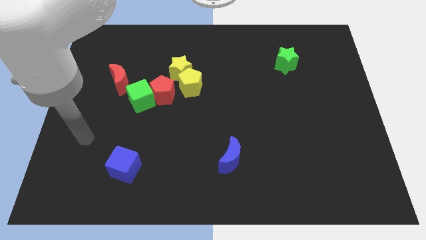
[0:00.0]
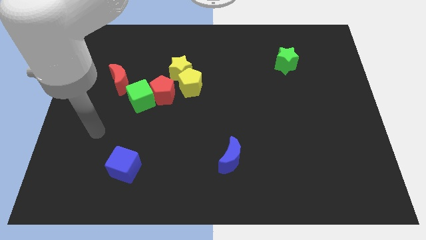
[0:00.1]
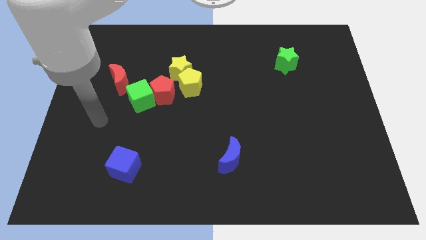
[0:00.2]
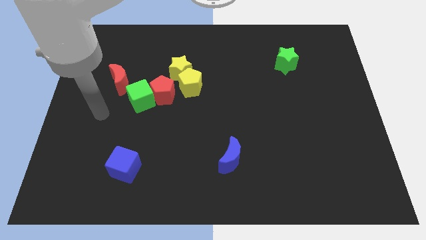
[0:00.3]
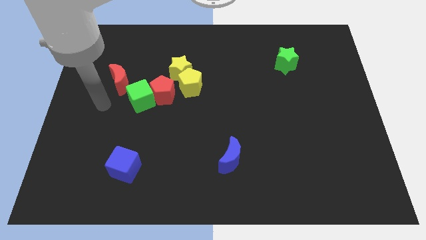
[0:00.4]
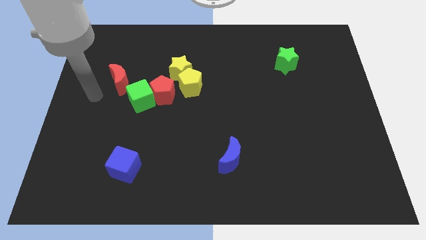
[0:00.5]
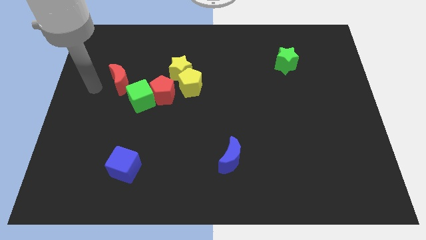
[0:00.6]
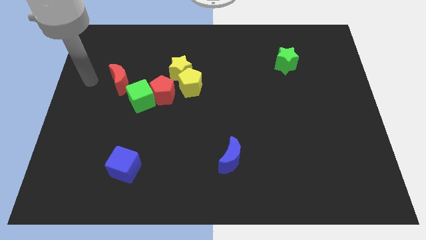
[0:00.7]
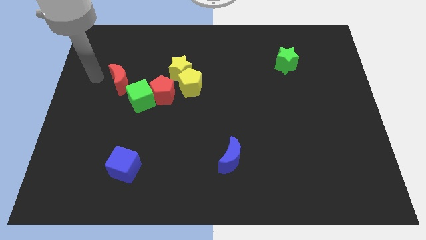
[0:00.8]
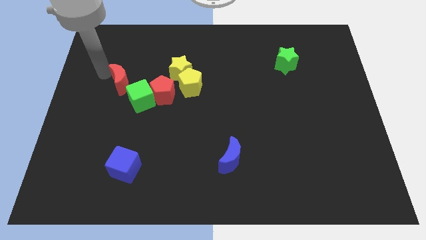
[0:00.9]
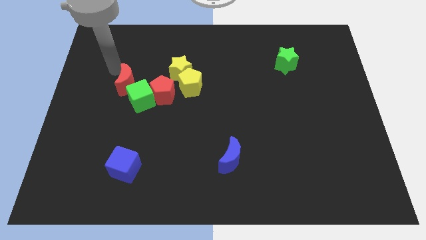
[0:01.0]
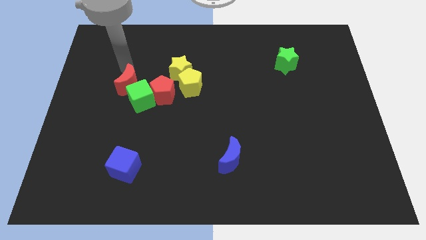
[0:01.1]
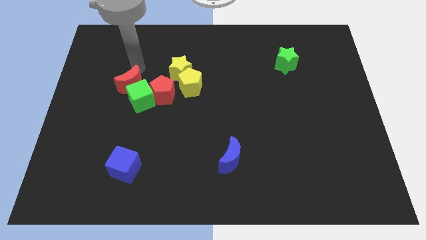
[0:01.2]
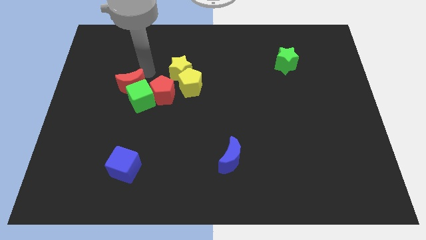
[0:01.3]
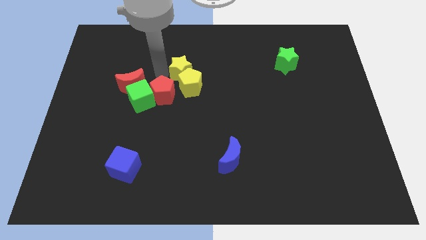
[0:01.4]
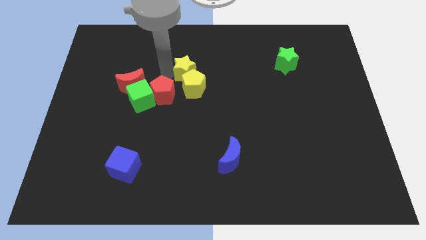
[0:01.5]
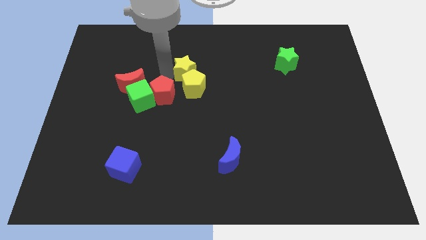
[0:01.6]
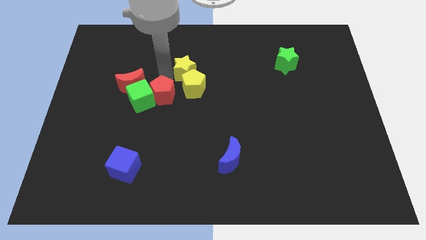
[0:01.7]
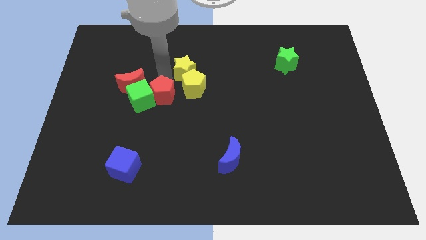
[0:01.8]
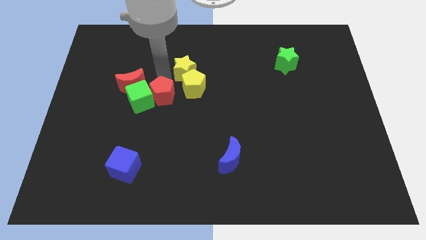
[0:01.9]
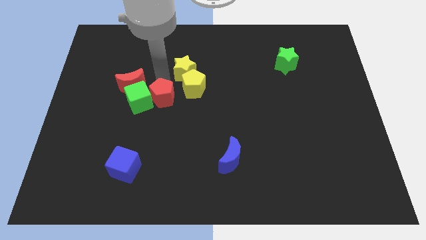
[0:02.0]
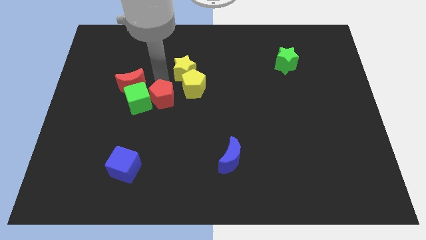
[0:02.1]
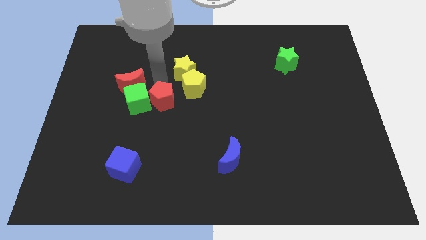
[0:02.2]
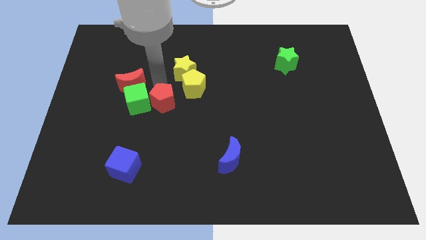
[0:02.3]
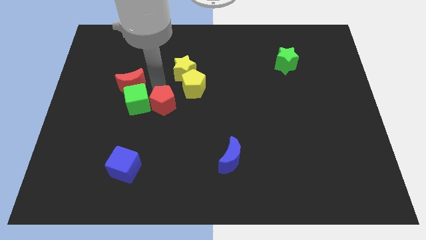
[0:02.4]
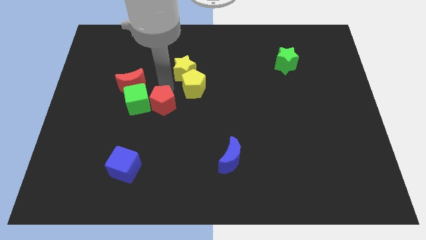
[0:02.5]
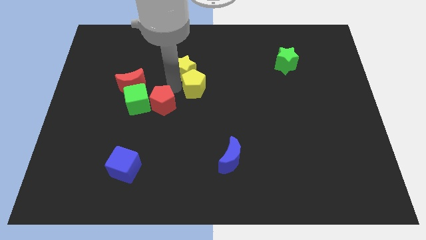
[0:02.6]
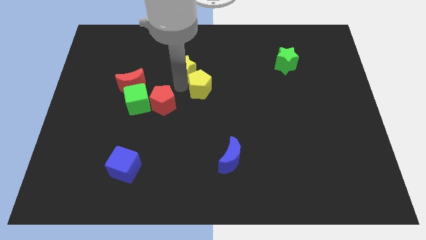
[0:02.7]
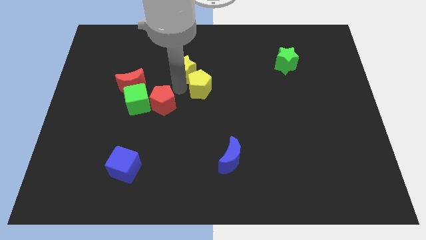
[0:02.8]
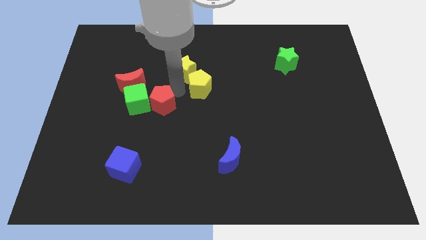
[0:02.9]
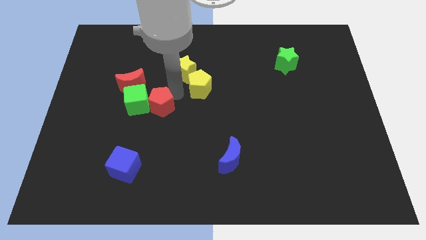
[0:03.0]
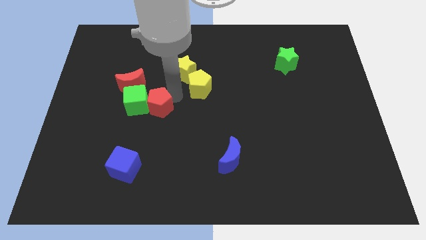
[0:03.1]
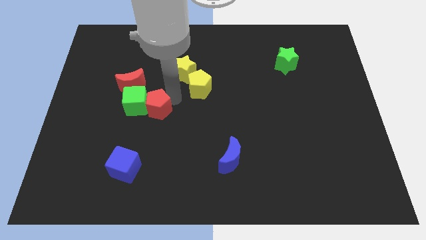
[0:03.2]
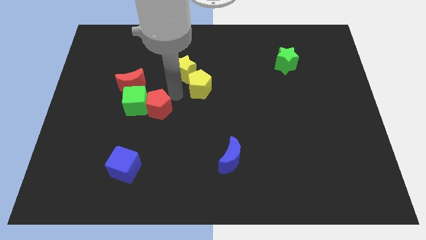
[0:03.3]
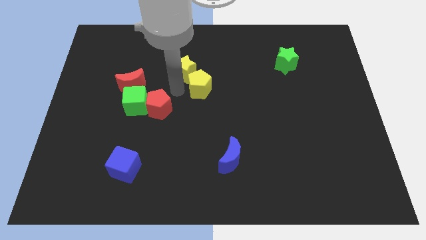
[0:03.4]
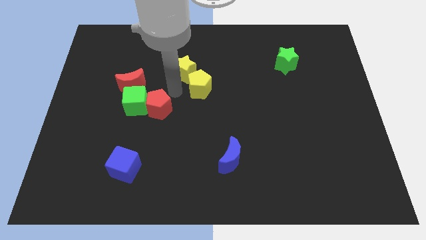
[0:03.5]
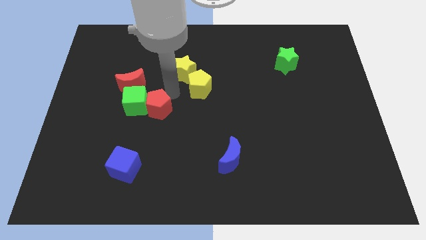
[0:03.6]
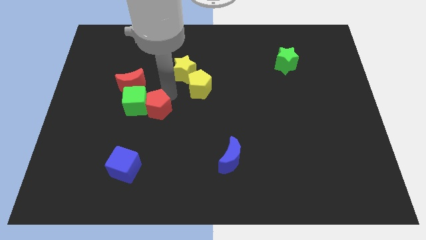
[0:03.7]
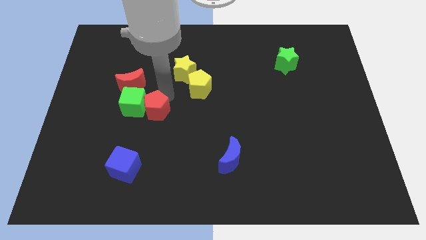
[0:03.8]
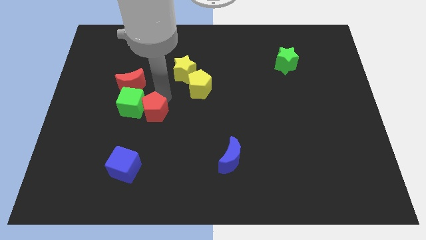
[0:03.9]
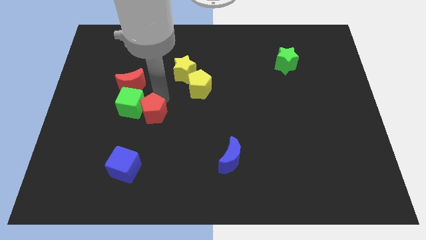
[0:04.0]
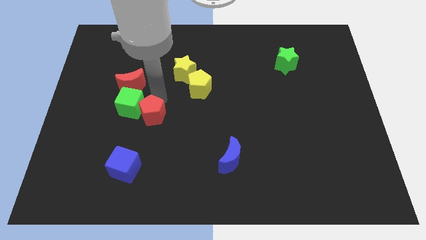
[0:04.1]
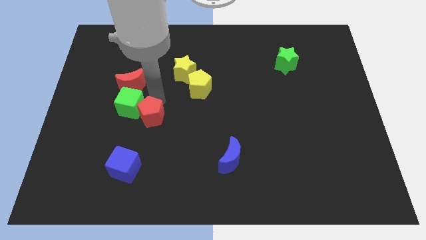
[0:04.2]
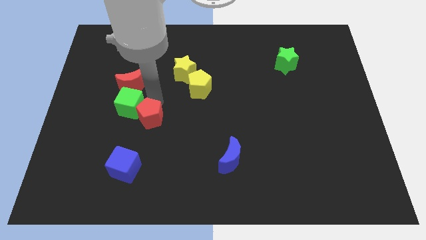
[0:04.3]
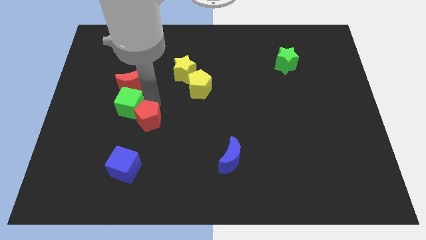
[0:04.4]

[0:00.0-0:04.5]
slide the red pentagon down and left a bit

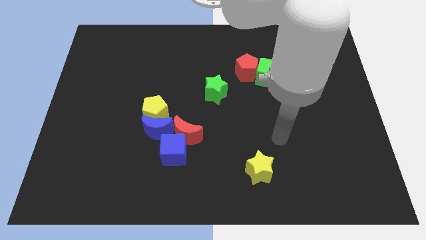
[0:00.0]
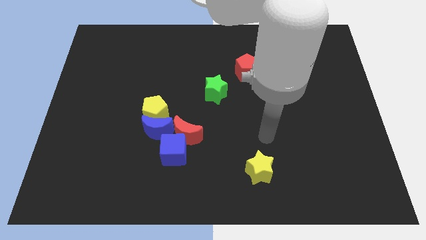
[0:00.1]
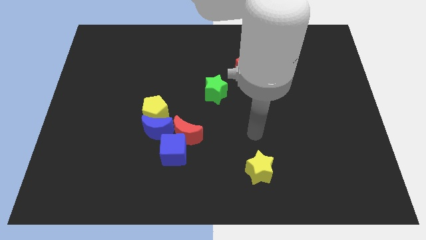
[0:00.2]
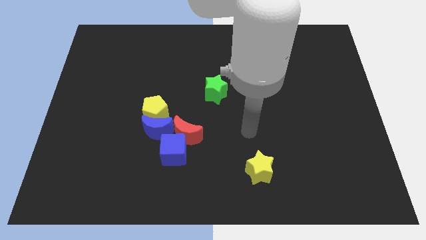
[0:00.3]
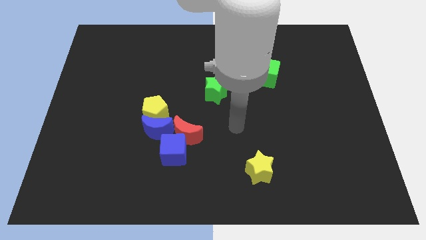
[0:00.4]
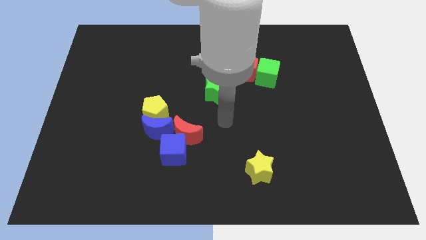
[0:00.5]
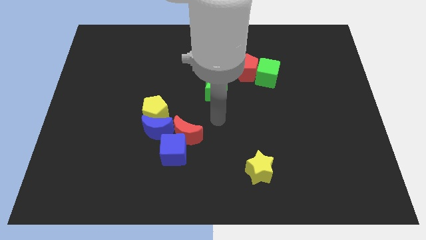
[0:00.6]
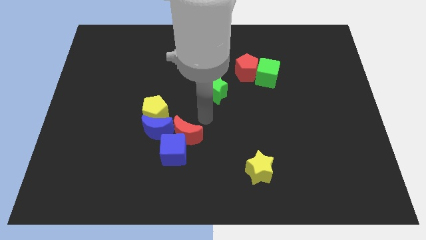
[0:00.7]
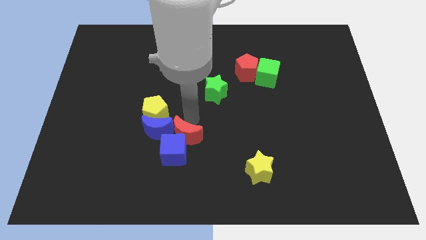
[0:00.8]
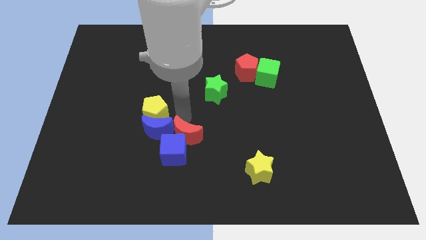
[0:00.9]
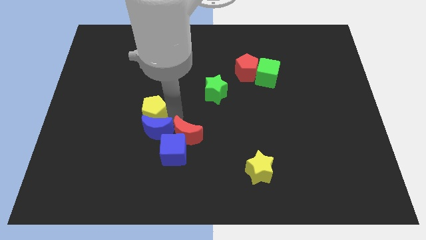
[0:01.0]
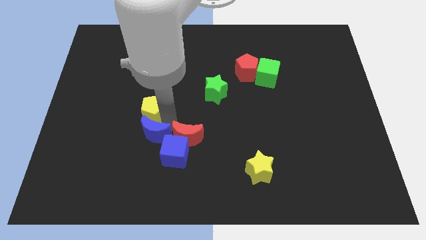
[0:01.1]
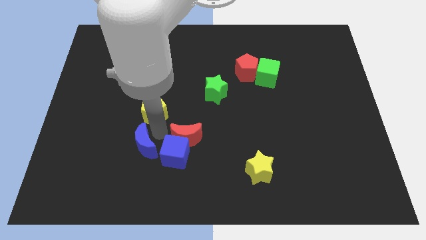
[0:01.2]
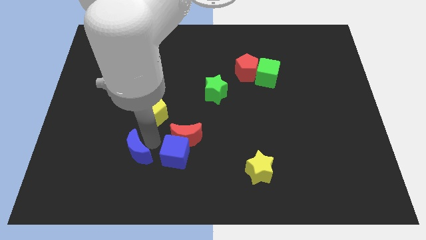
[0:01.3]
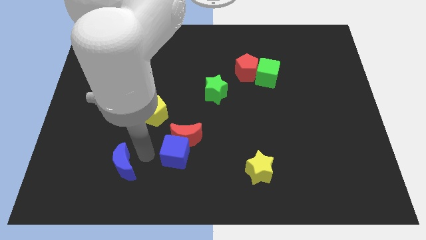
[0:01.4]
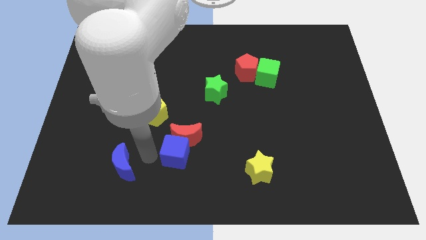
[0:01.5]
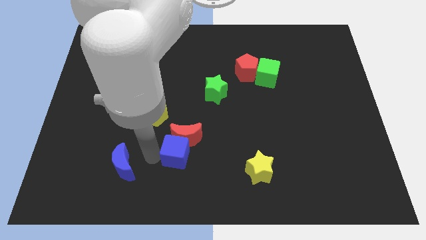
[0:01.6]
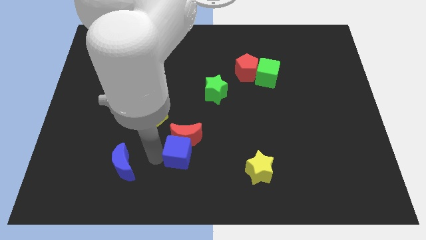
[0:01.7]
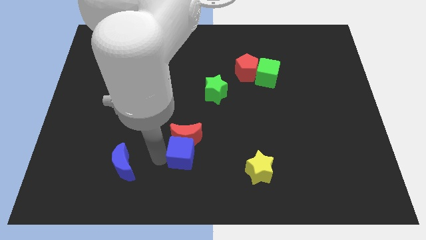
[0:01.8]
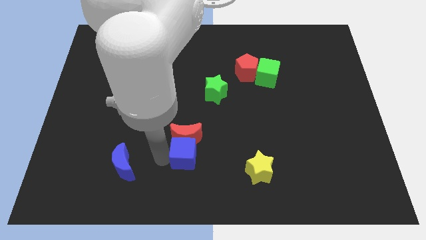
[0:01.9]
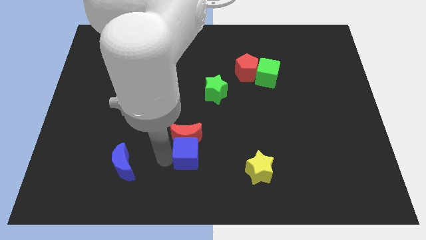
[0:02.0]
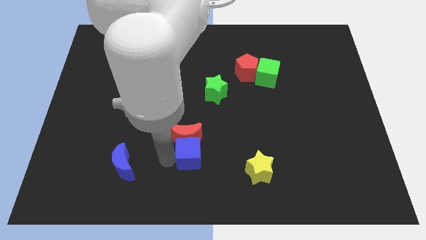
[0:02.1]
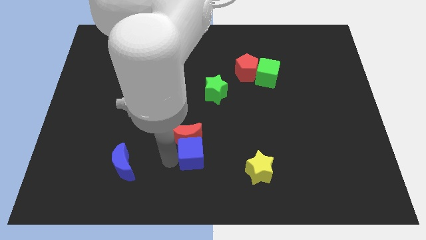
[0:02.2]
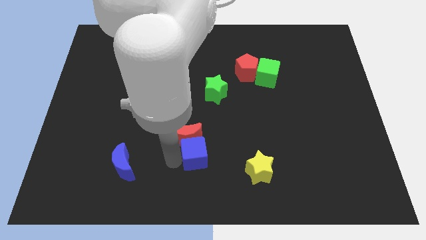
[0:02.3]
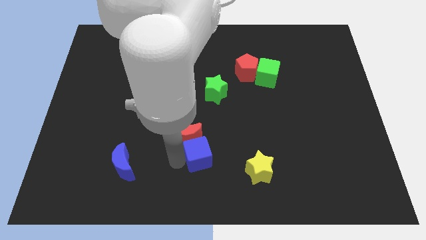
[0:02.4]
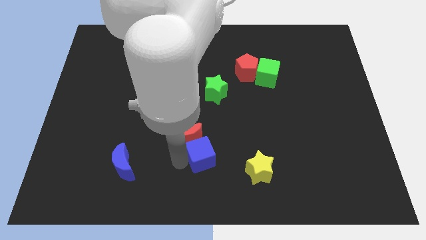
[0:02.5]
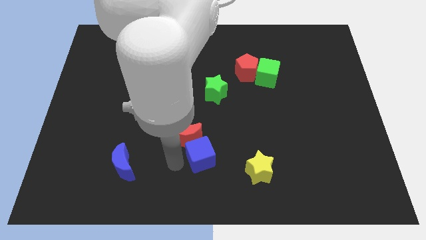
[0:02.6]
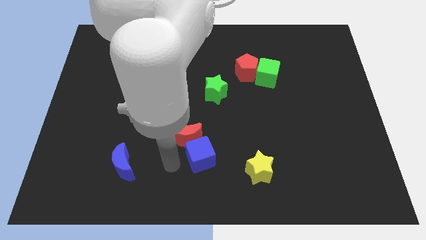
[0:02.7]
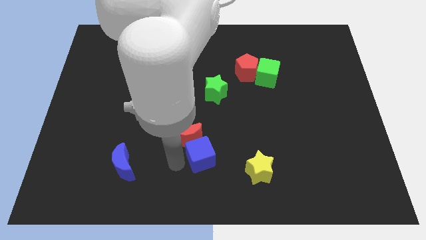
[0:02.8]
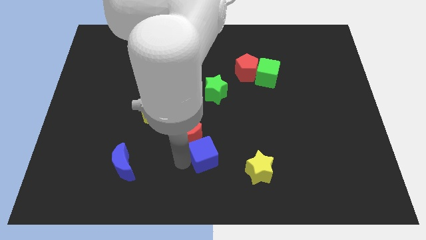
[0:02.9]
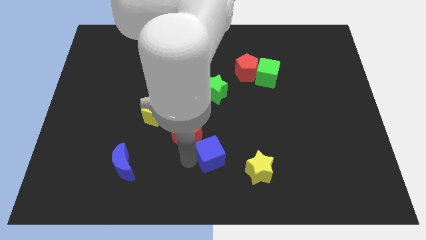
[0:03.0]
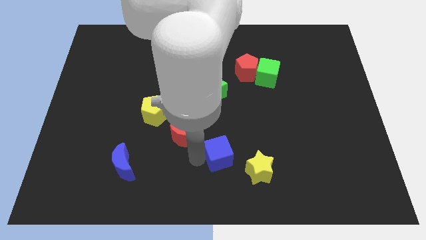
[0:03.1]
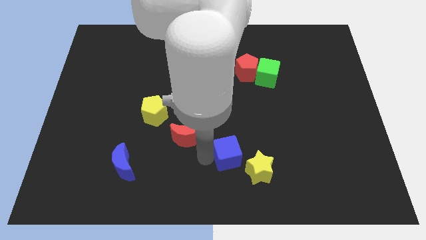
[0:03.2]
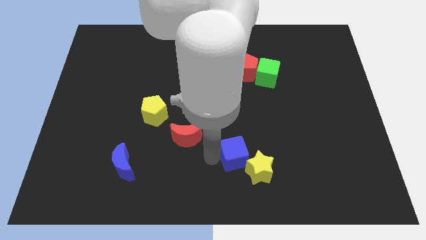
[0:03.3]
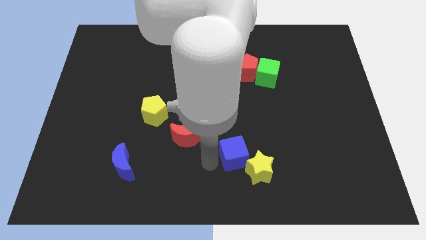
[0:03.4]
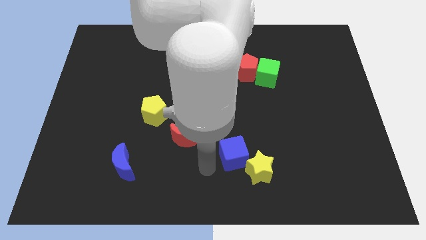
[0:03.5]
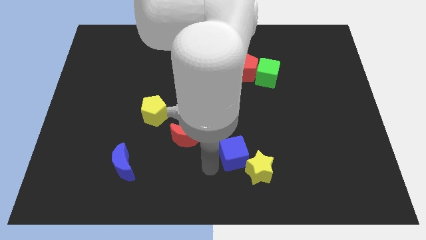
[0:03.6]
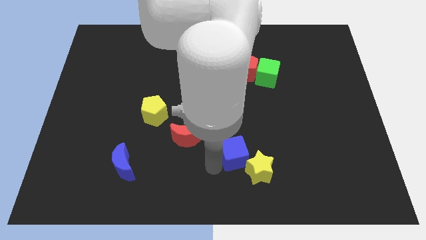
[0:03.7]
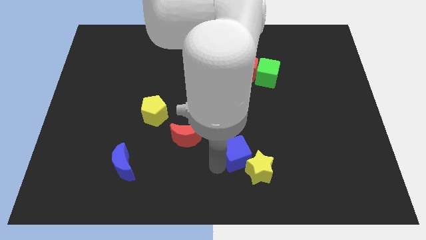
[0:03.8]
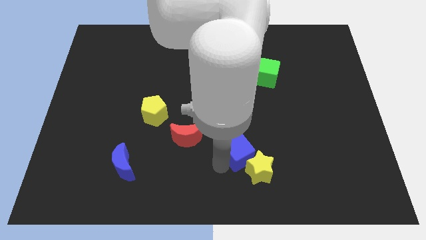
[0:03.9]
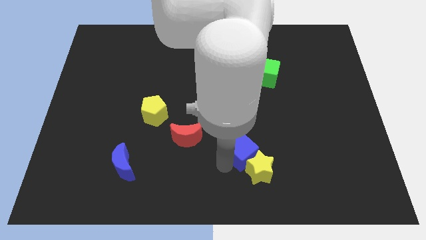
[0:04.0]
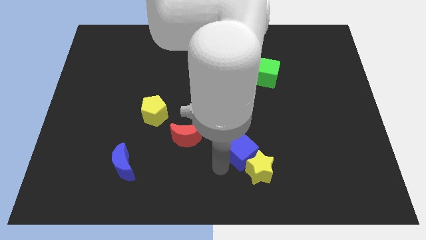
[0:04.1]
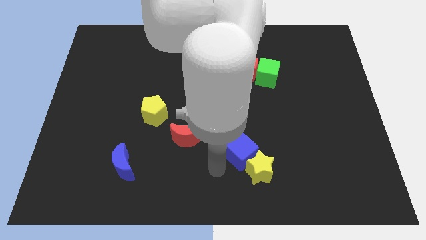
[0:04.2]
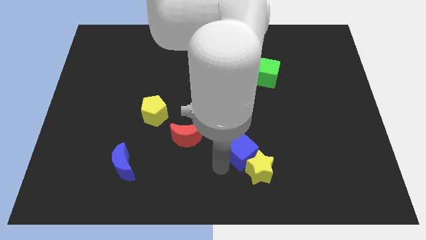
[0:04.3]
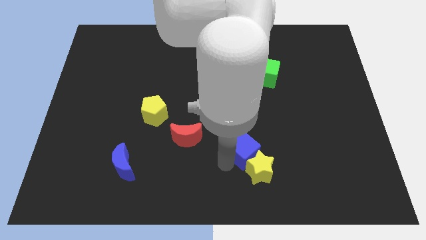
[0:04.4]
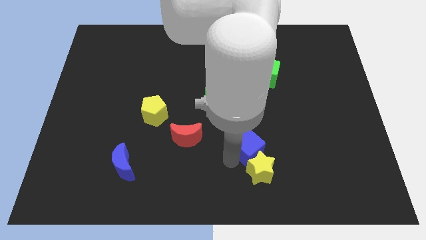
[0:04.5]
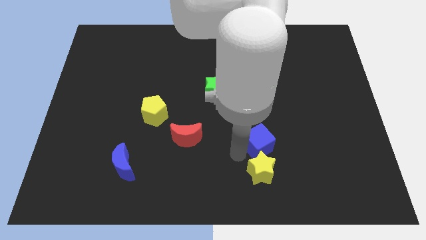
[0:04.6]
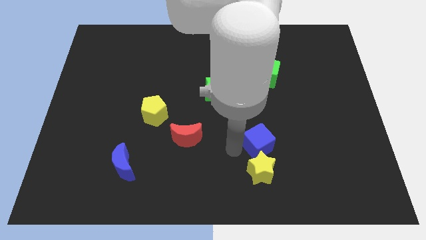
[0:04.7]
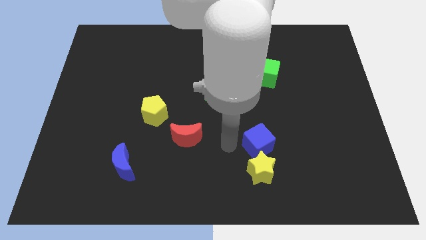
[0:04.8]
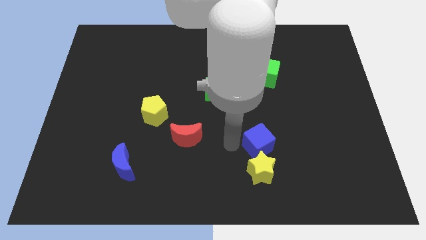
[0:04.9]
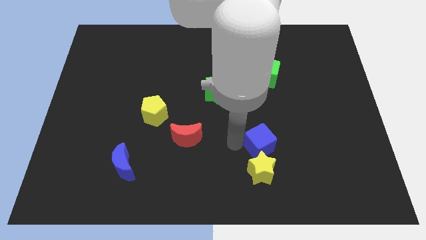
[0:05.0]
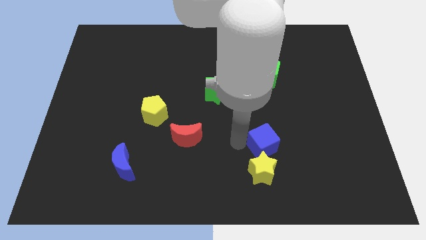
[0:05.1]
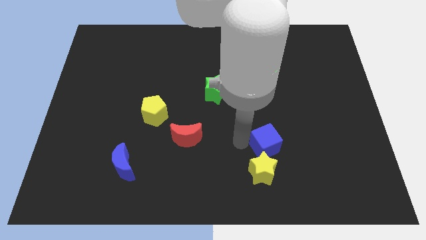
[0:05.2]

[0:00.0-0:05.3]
push the blue cube to the right
